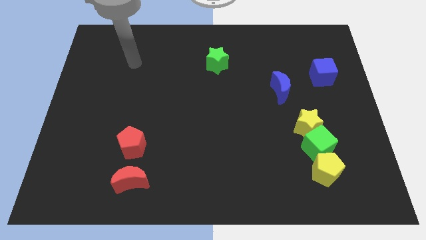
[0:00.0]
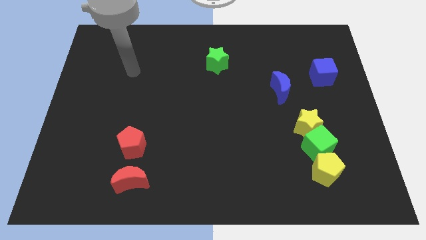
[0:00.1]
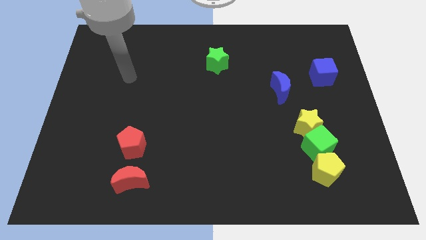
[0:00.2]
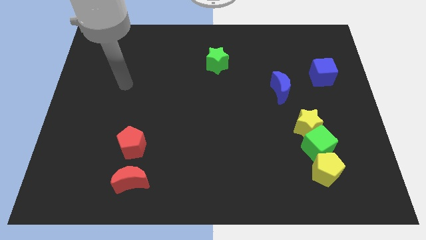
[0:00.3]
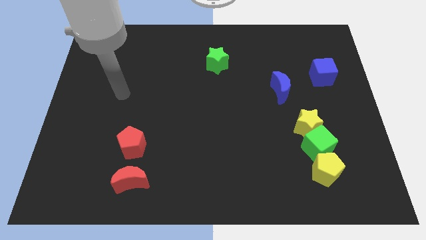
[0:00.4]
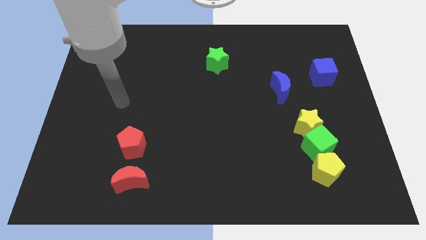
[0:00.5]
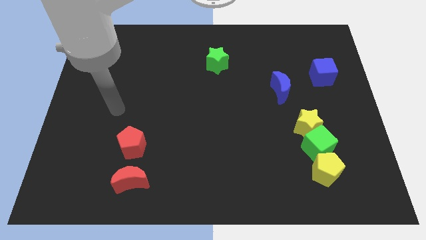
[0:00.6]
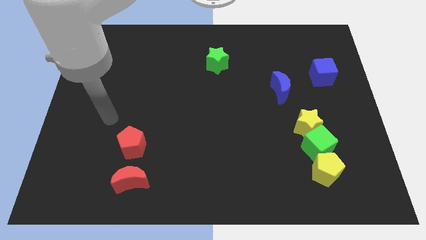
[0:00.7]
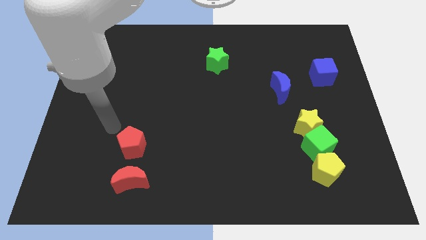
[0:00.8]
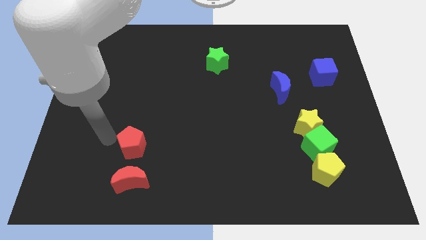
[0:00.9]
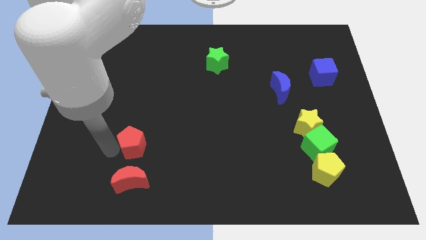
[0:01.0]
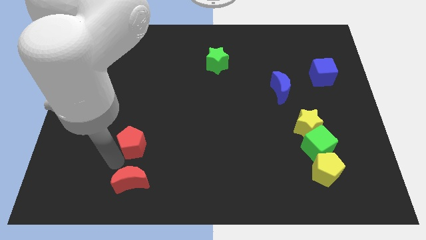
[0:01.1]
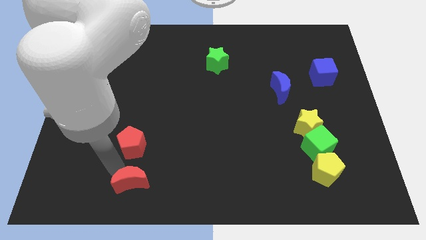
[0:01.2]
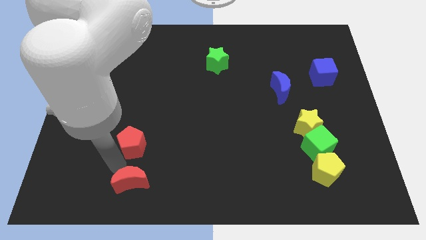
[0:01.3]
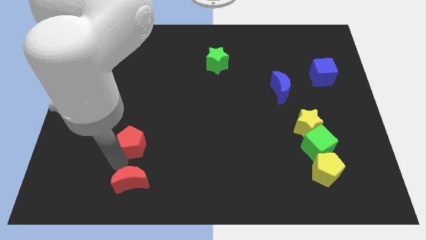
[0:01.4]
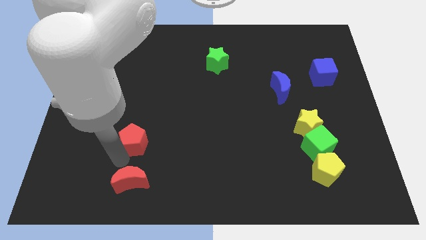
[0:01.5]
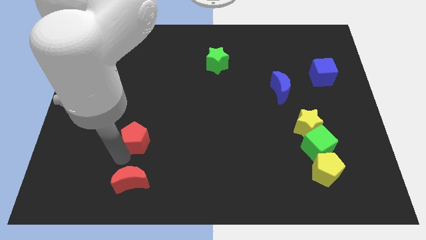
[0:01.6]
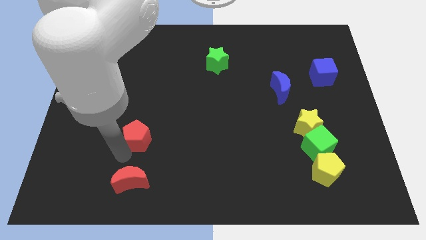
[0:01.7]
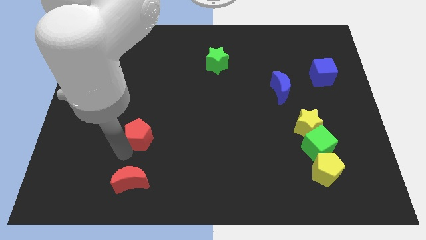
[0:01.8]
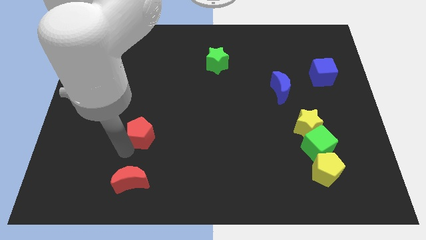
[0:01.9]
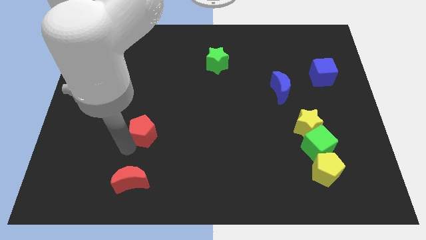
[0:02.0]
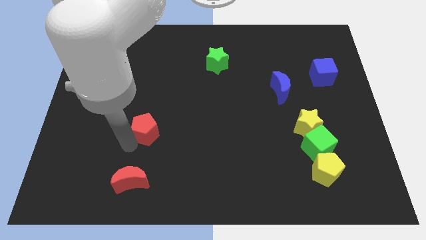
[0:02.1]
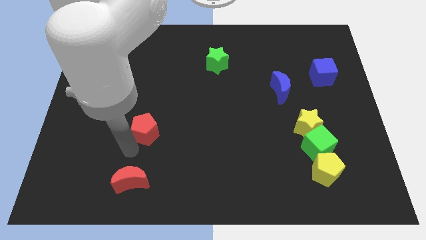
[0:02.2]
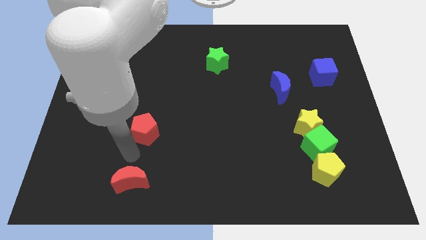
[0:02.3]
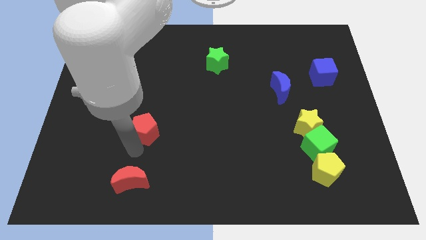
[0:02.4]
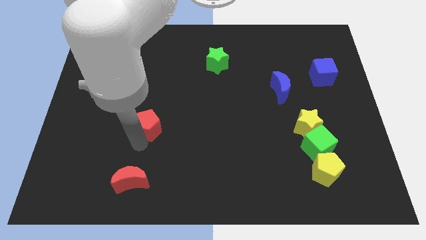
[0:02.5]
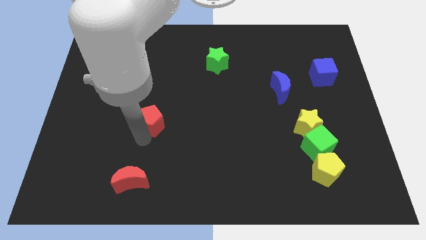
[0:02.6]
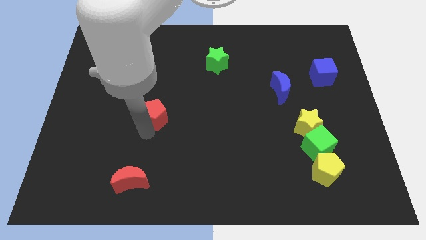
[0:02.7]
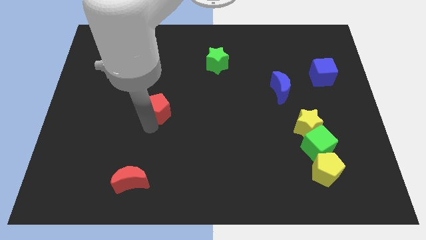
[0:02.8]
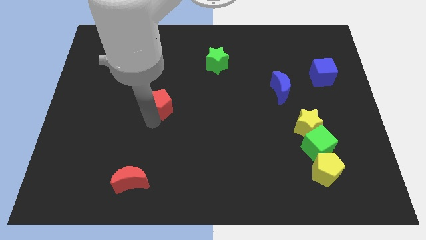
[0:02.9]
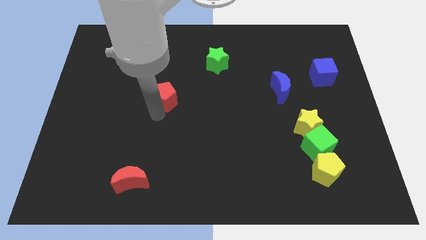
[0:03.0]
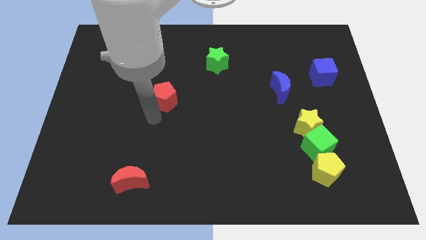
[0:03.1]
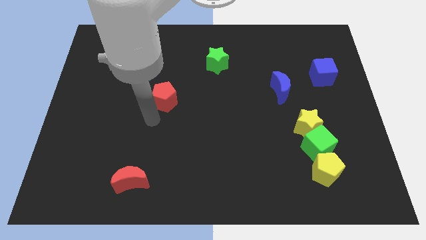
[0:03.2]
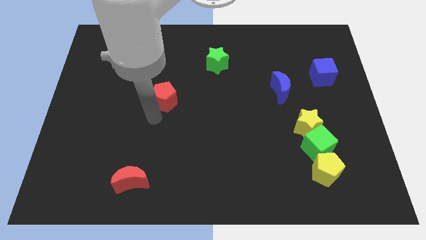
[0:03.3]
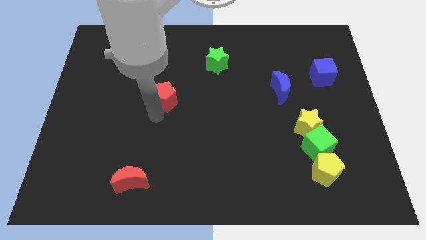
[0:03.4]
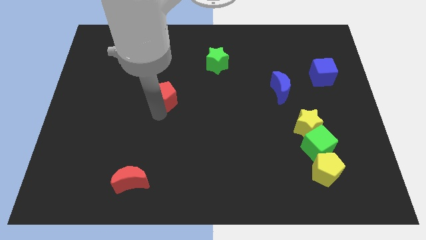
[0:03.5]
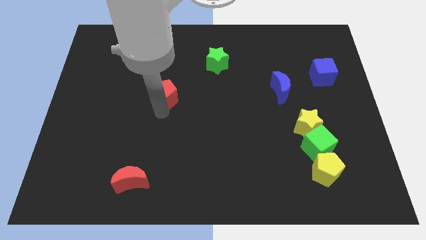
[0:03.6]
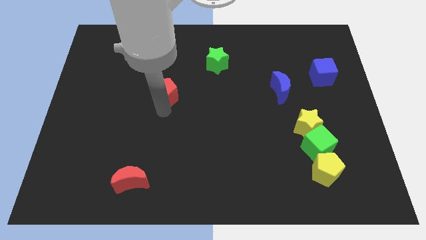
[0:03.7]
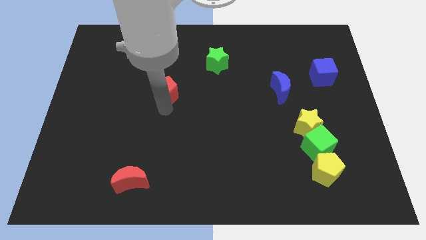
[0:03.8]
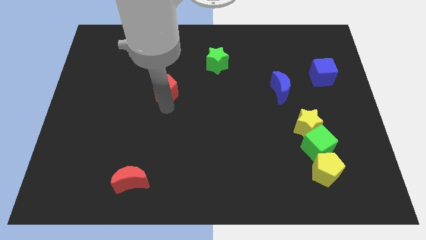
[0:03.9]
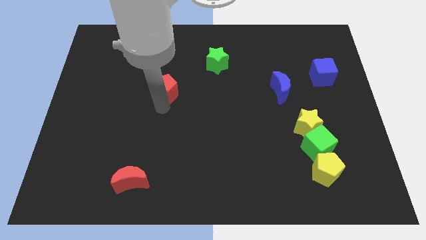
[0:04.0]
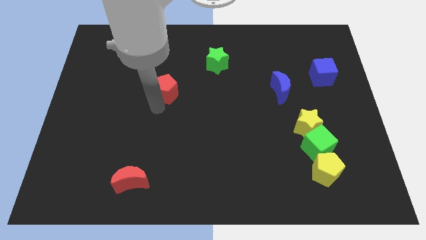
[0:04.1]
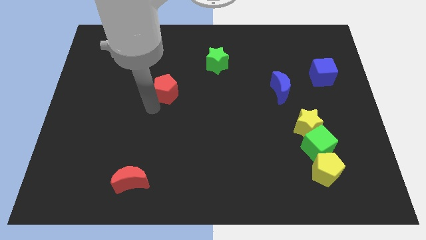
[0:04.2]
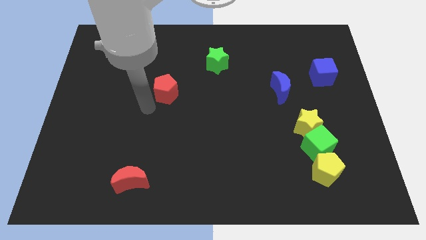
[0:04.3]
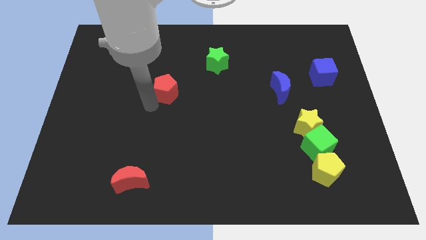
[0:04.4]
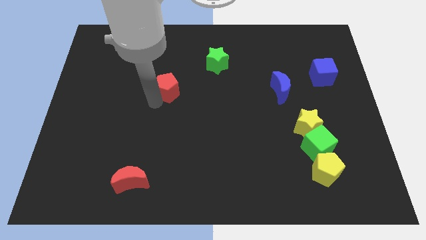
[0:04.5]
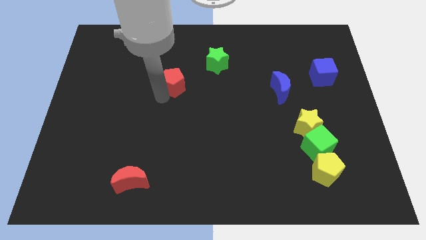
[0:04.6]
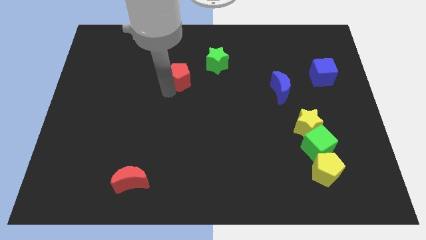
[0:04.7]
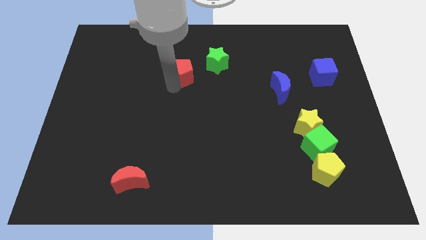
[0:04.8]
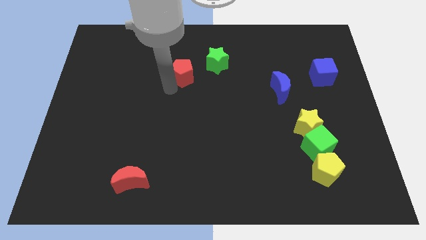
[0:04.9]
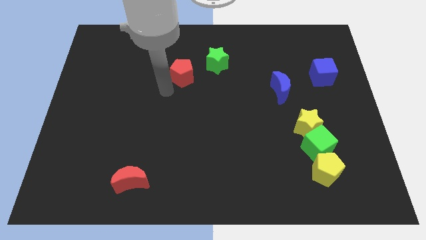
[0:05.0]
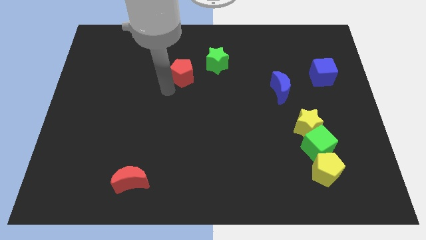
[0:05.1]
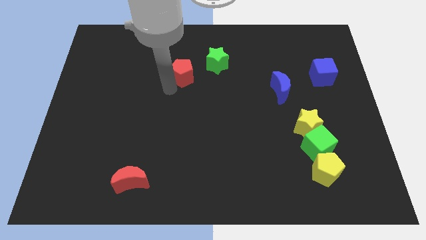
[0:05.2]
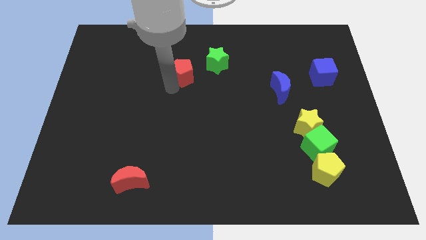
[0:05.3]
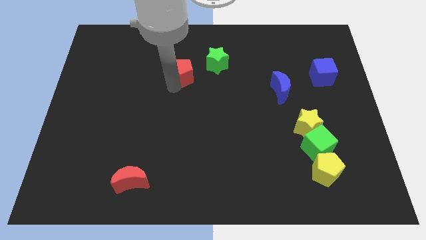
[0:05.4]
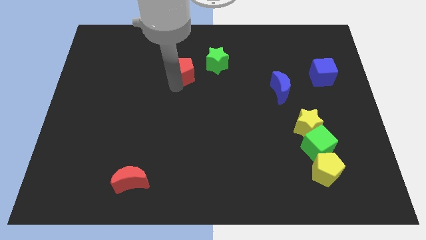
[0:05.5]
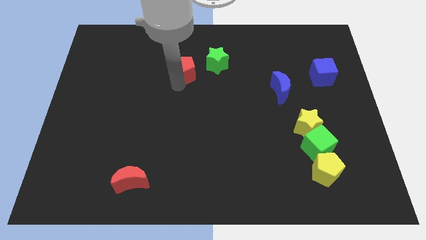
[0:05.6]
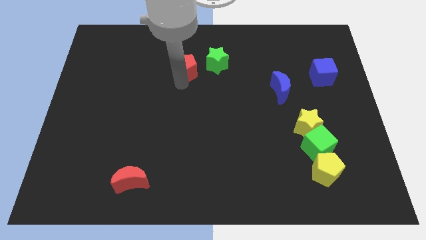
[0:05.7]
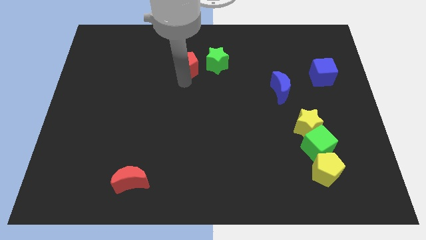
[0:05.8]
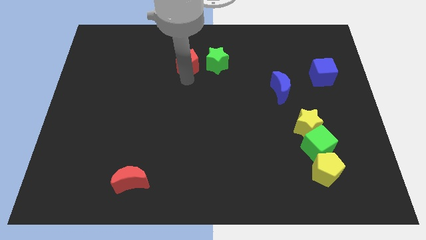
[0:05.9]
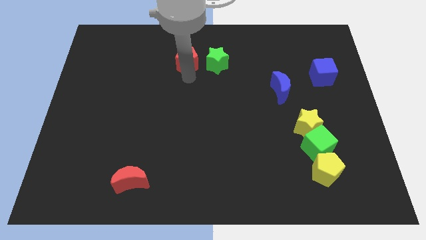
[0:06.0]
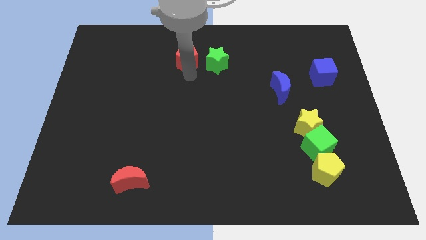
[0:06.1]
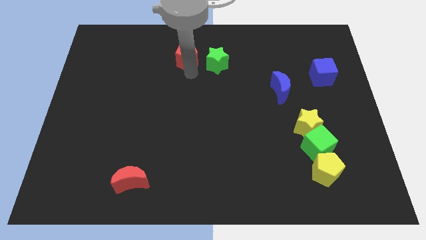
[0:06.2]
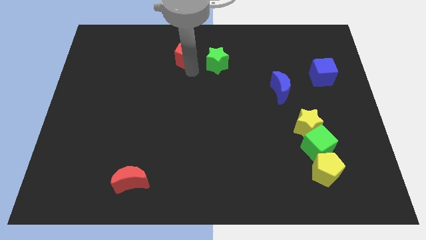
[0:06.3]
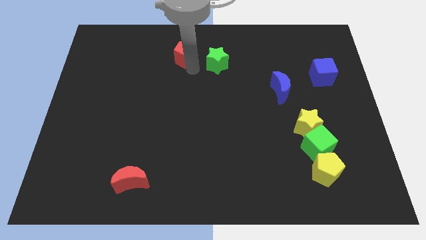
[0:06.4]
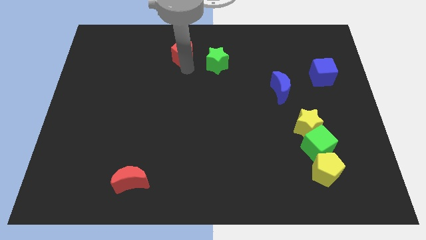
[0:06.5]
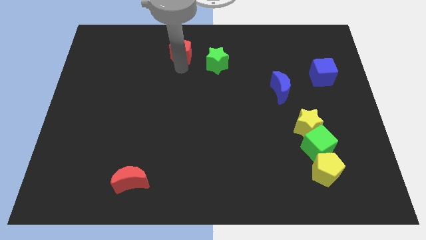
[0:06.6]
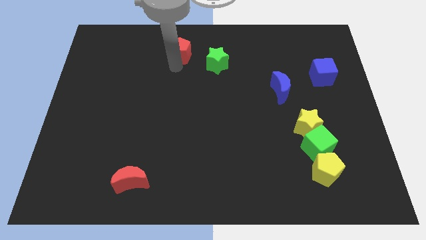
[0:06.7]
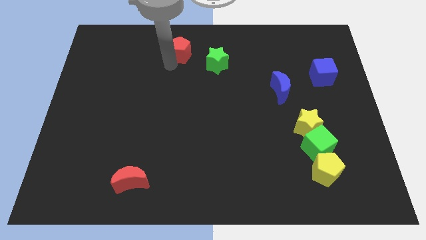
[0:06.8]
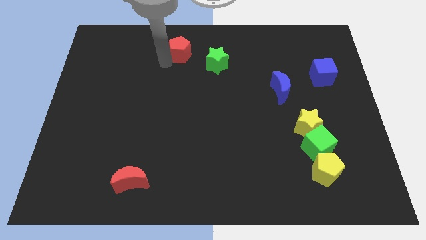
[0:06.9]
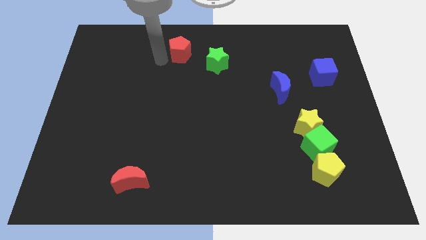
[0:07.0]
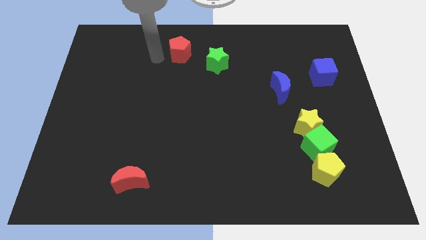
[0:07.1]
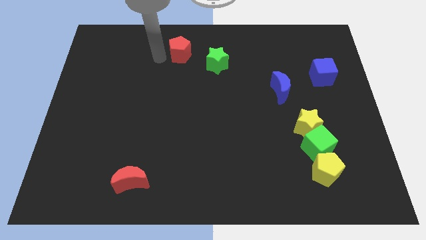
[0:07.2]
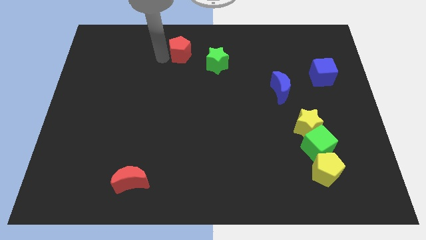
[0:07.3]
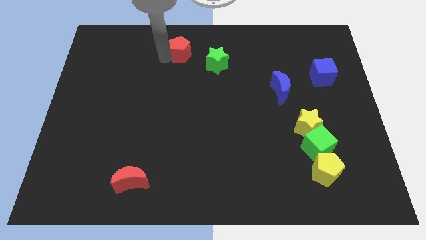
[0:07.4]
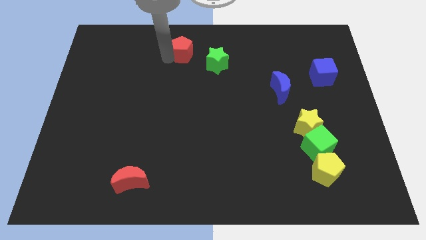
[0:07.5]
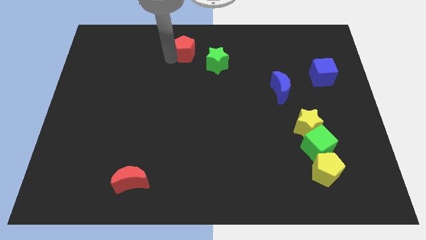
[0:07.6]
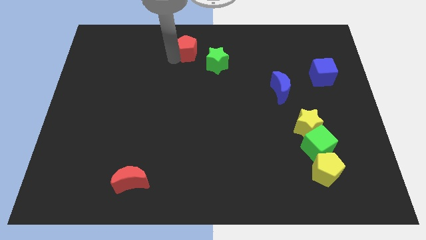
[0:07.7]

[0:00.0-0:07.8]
put the red pentagon to the towards your base
